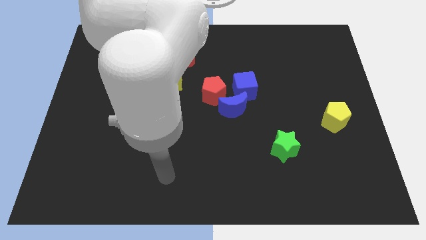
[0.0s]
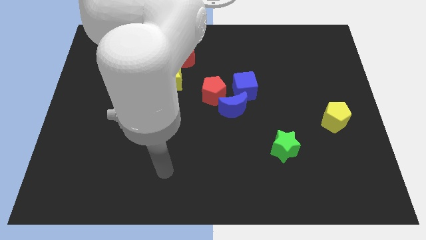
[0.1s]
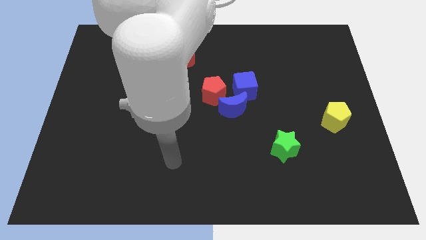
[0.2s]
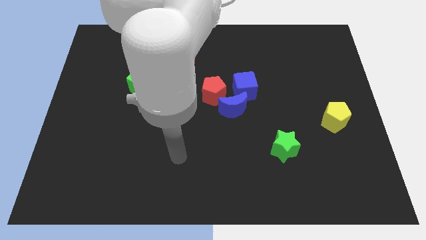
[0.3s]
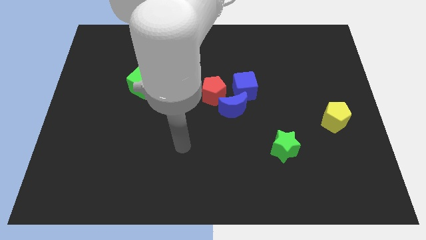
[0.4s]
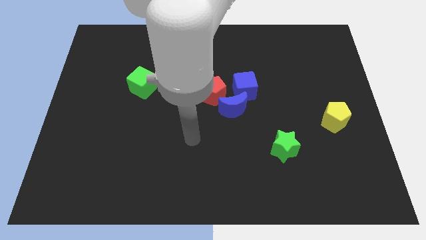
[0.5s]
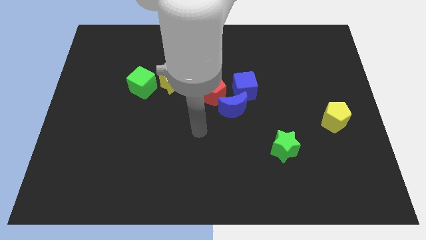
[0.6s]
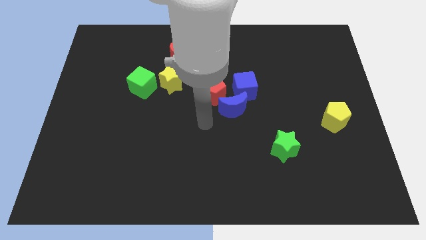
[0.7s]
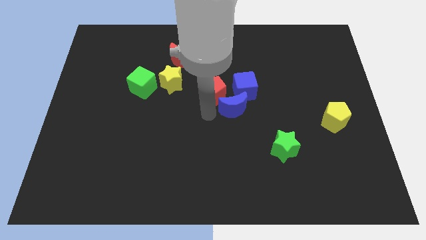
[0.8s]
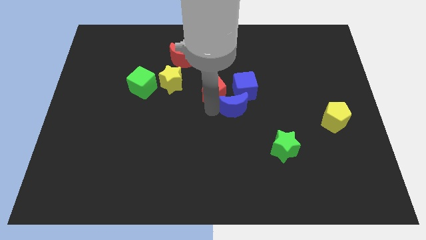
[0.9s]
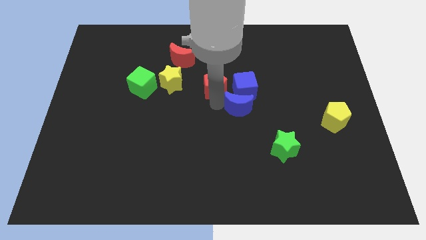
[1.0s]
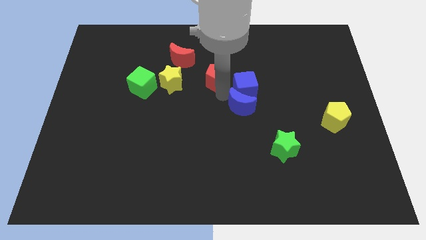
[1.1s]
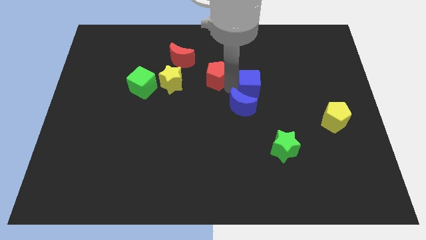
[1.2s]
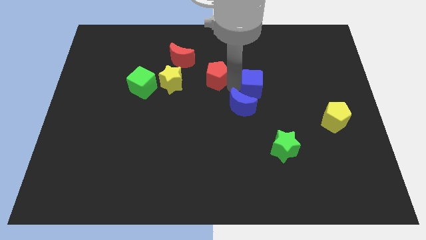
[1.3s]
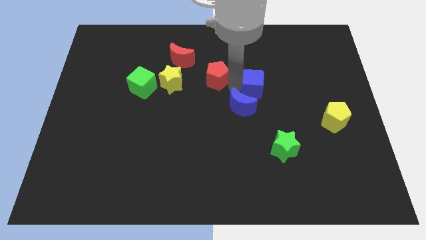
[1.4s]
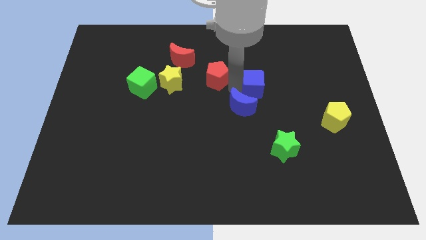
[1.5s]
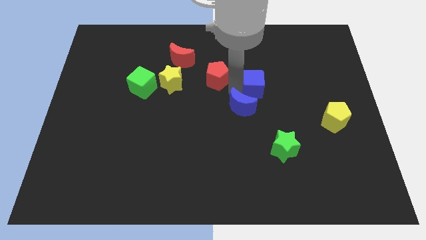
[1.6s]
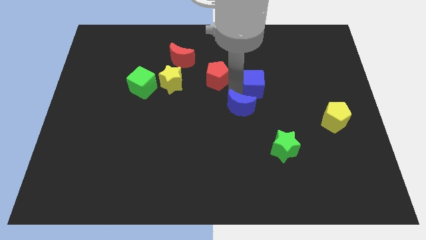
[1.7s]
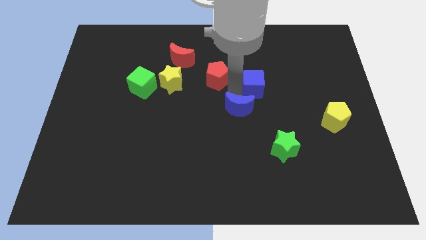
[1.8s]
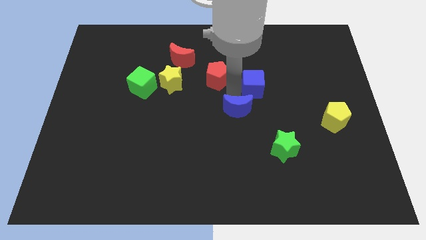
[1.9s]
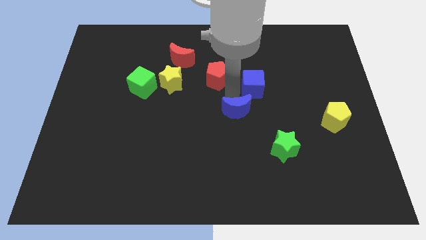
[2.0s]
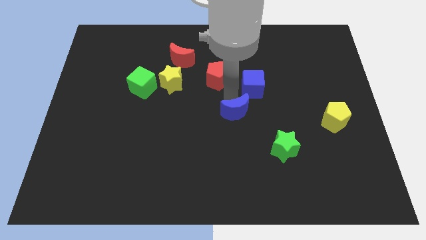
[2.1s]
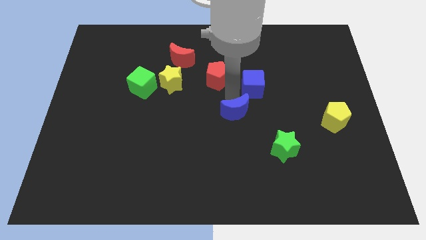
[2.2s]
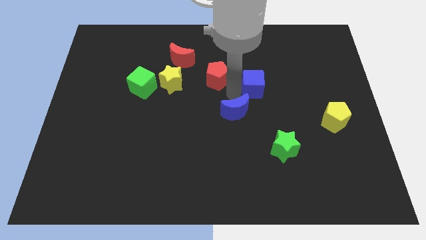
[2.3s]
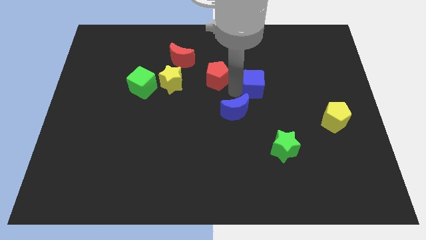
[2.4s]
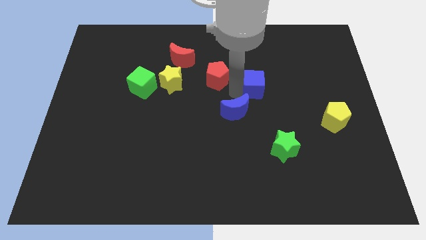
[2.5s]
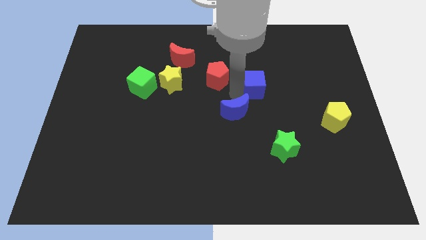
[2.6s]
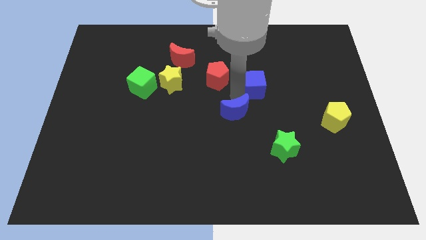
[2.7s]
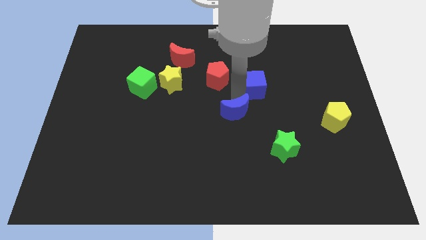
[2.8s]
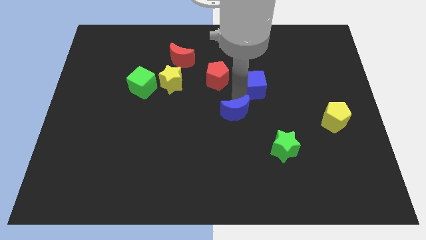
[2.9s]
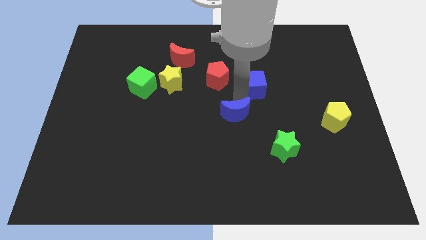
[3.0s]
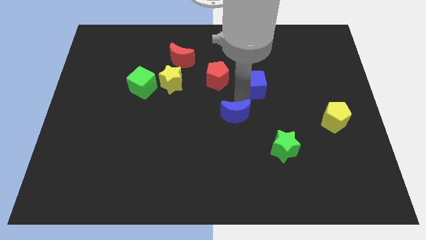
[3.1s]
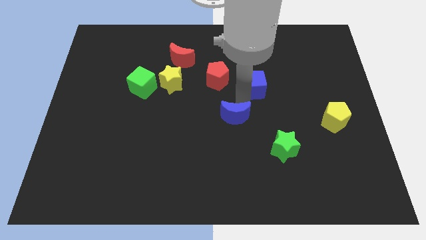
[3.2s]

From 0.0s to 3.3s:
separate the blue moon from the blue cube and red pentagon

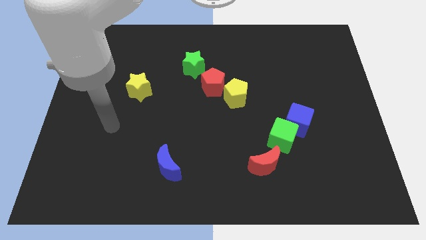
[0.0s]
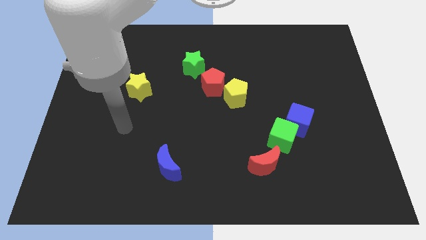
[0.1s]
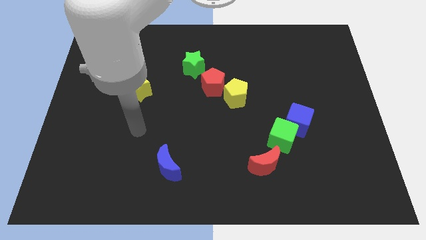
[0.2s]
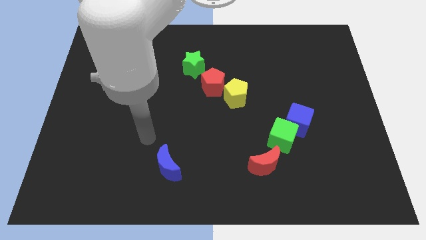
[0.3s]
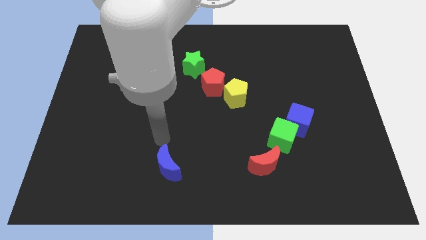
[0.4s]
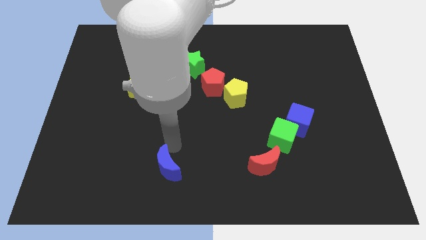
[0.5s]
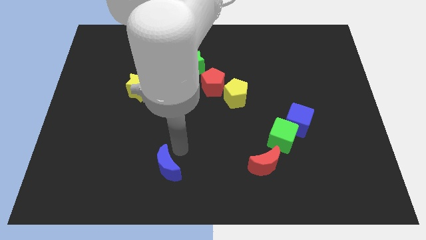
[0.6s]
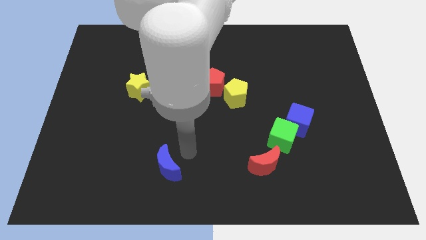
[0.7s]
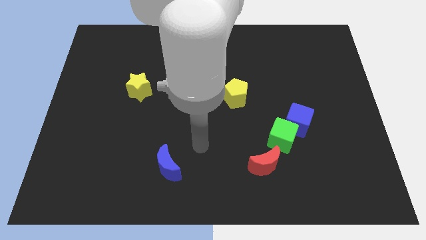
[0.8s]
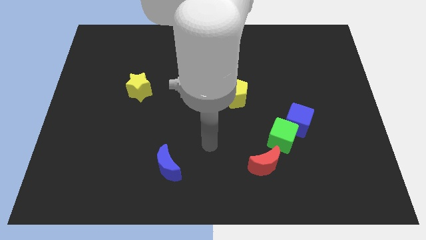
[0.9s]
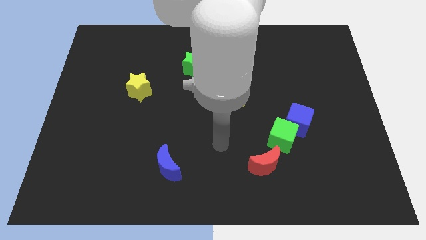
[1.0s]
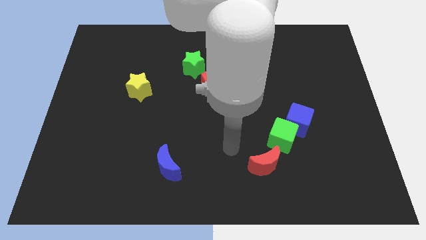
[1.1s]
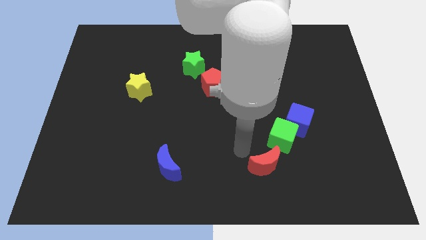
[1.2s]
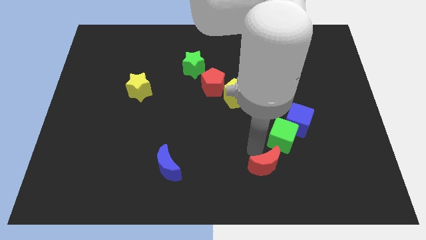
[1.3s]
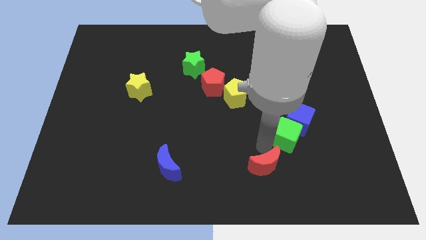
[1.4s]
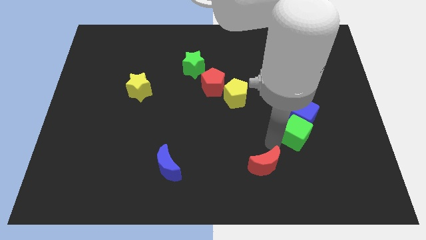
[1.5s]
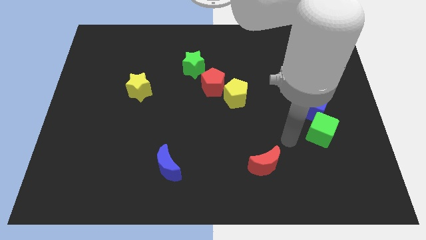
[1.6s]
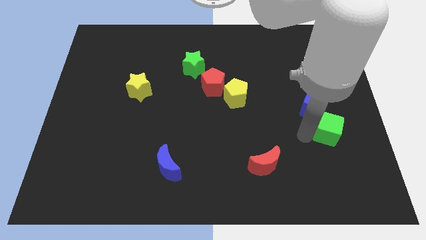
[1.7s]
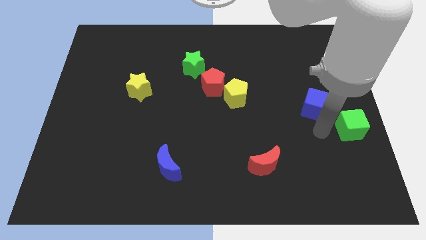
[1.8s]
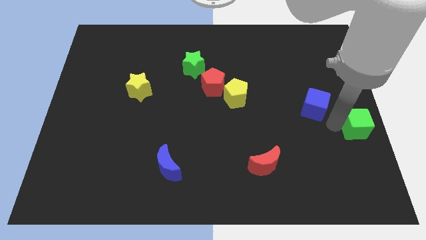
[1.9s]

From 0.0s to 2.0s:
pull the blue cube apart from the green cube

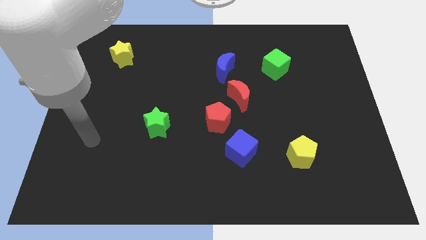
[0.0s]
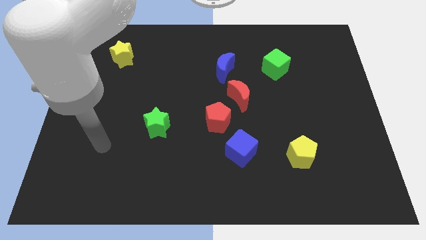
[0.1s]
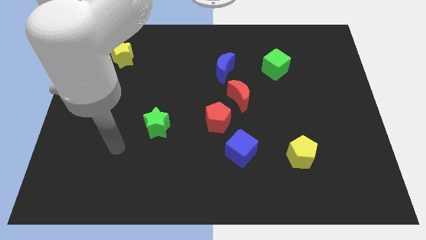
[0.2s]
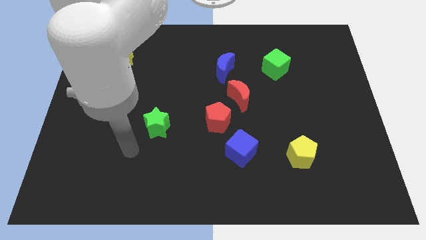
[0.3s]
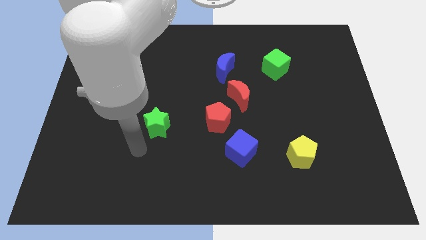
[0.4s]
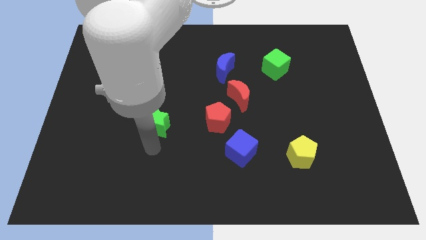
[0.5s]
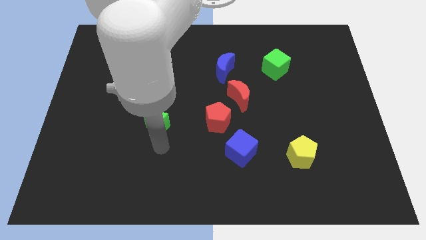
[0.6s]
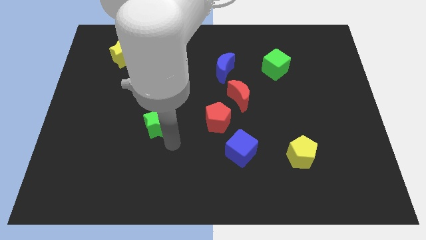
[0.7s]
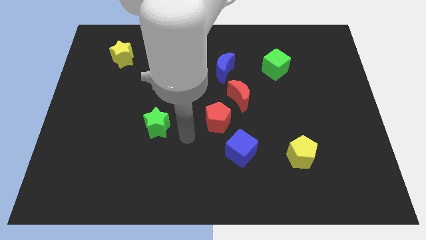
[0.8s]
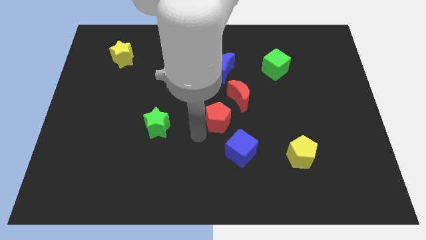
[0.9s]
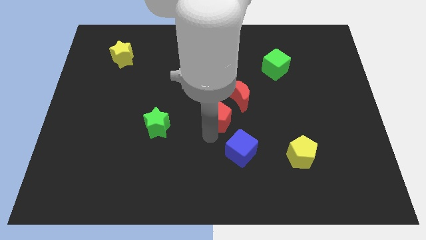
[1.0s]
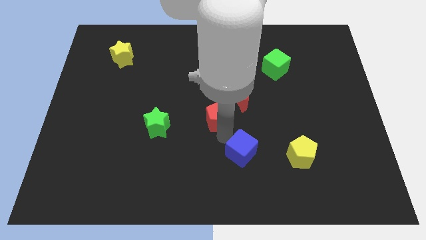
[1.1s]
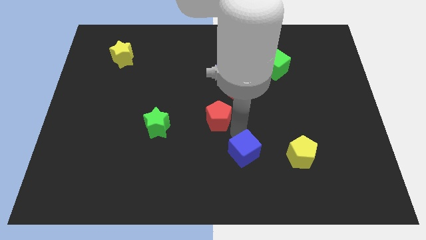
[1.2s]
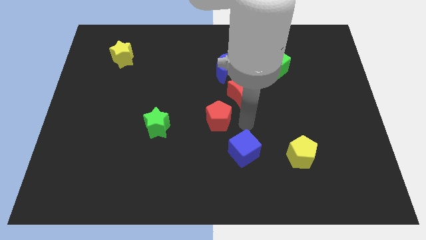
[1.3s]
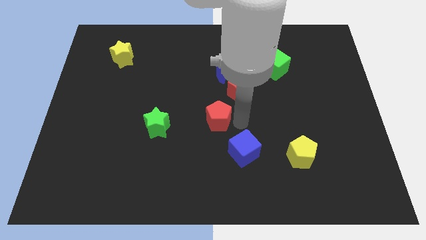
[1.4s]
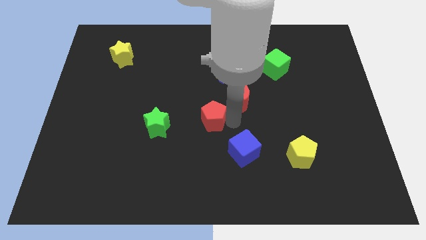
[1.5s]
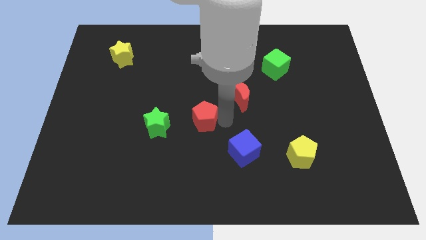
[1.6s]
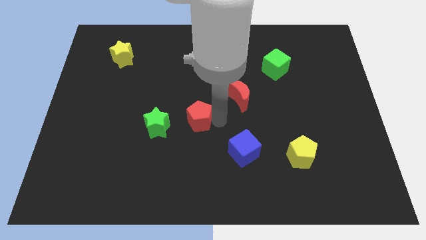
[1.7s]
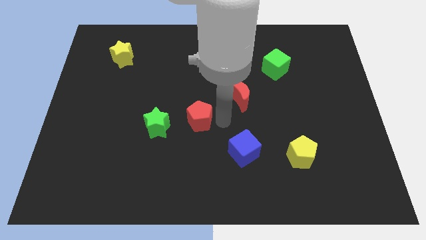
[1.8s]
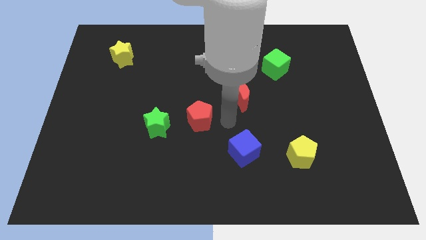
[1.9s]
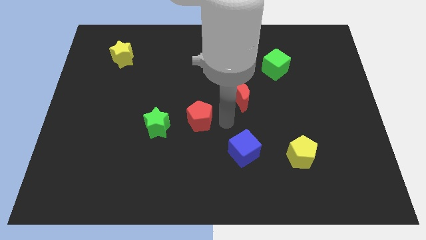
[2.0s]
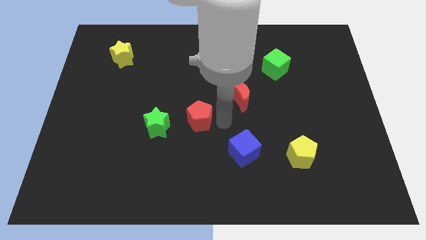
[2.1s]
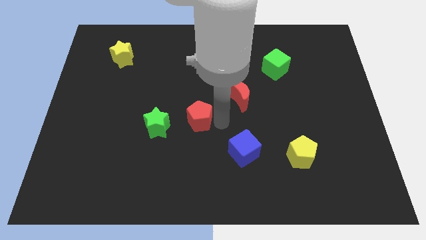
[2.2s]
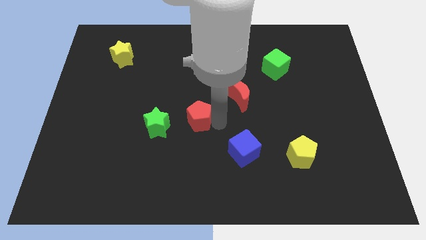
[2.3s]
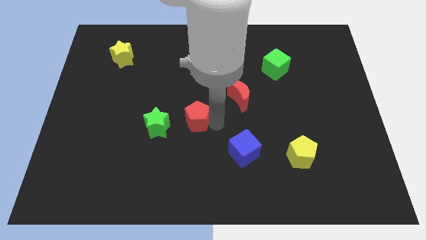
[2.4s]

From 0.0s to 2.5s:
move the red pentagon away from the red moon and blue cube

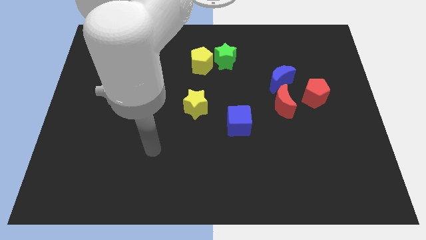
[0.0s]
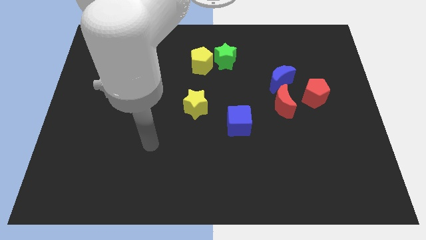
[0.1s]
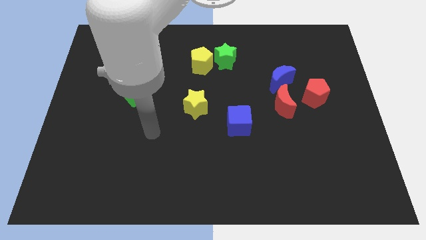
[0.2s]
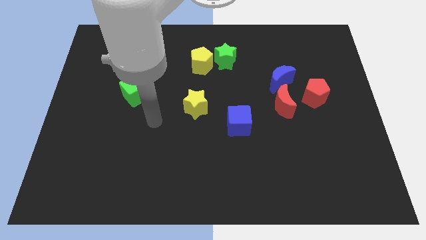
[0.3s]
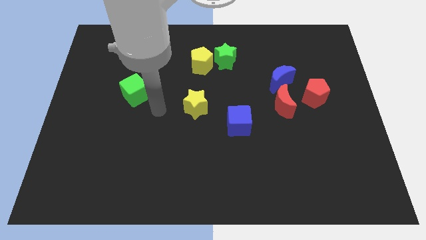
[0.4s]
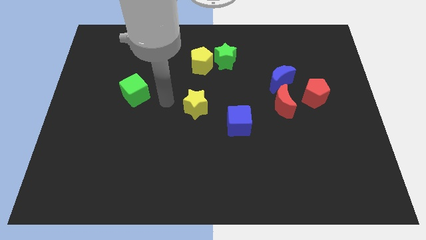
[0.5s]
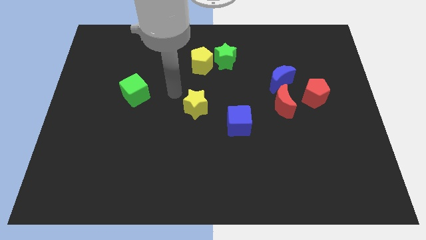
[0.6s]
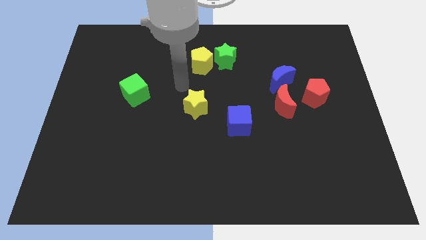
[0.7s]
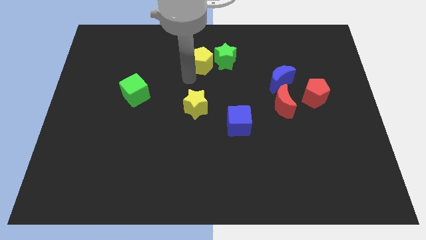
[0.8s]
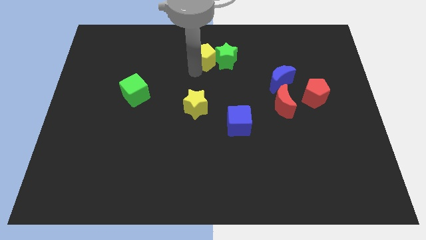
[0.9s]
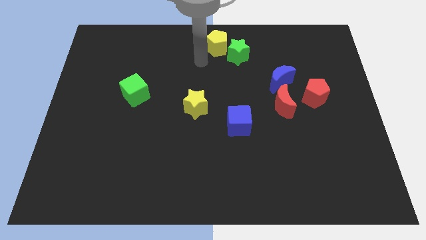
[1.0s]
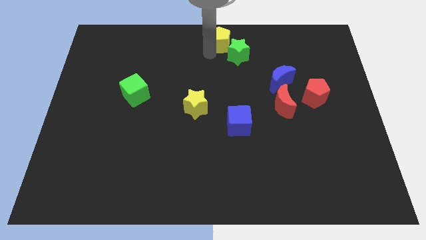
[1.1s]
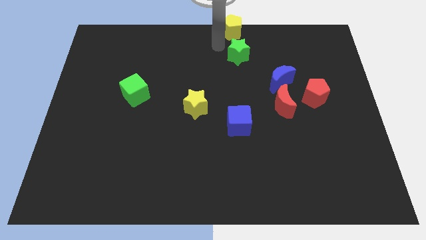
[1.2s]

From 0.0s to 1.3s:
separate the green star from the yellow pentagon

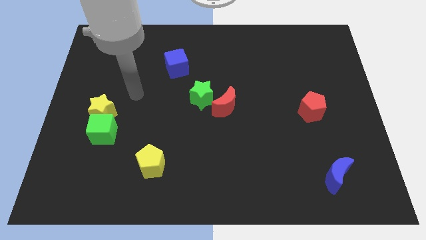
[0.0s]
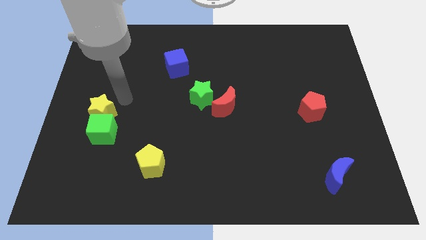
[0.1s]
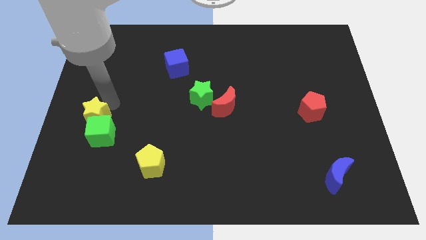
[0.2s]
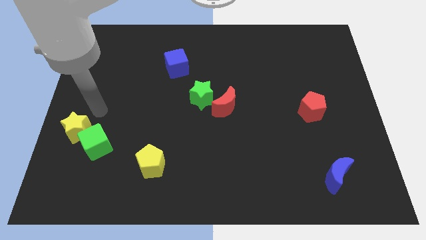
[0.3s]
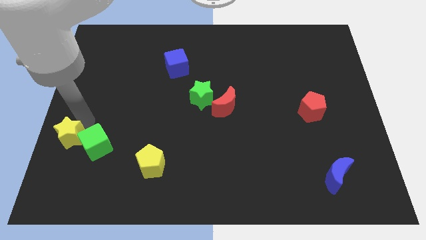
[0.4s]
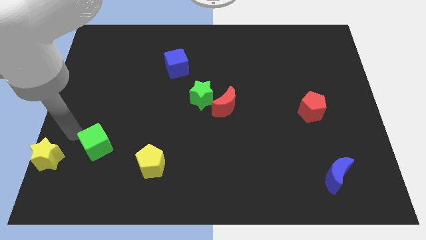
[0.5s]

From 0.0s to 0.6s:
separate the green cube from the yellow star
